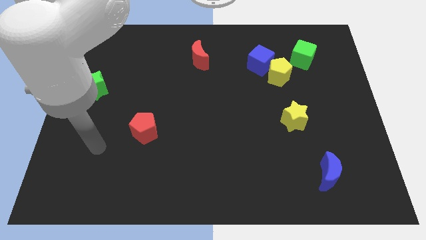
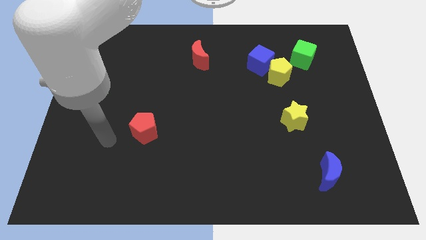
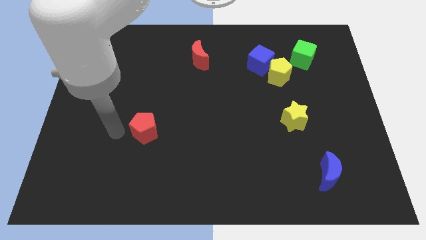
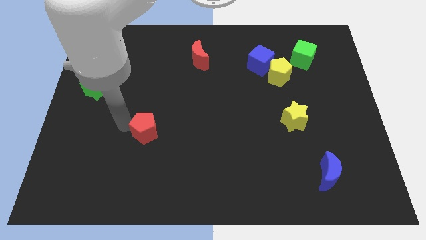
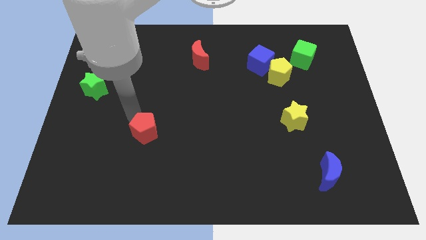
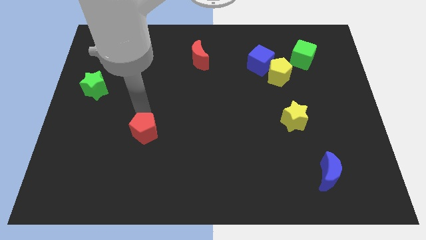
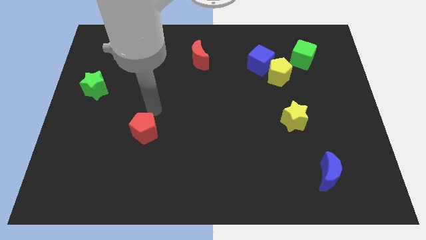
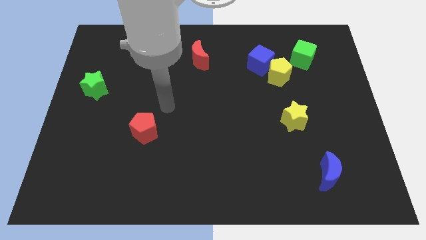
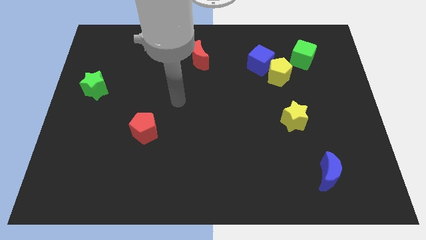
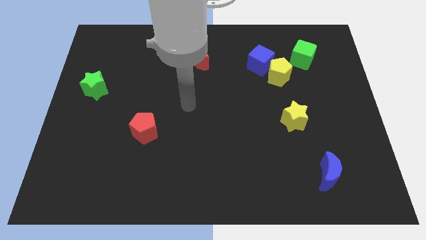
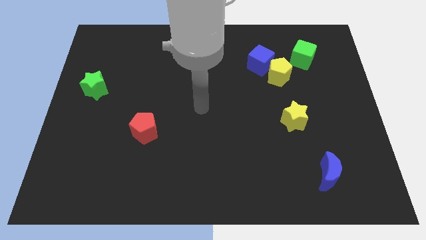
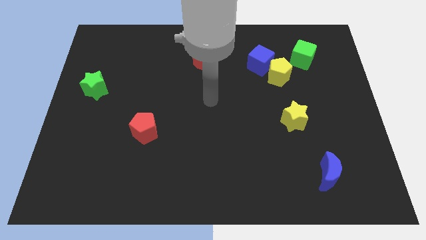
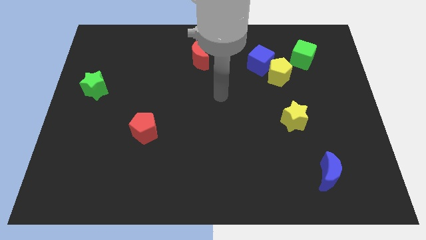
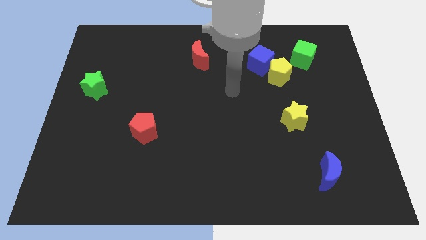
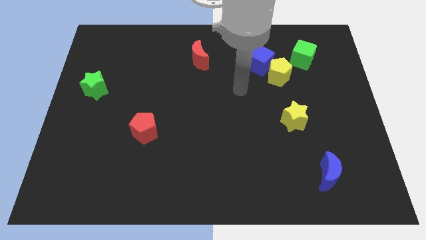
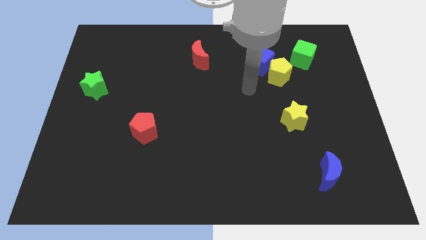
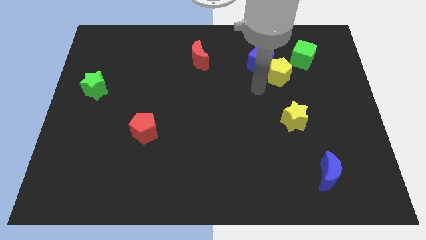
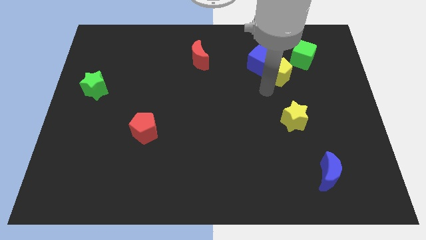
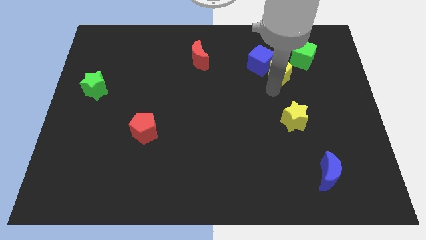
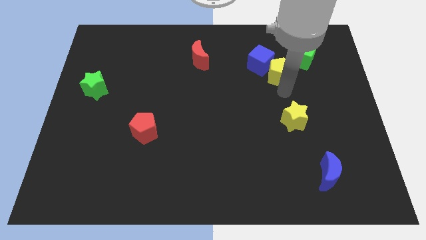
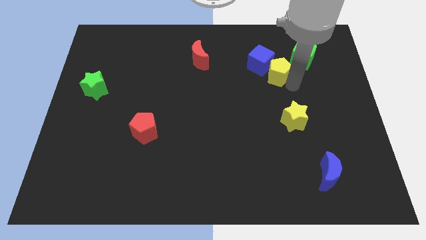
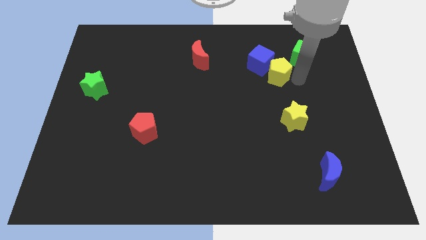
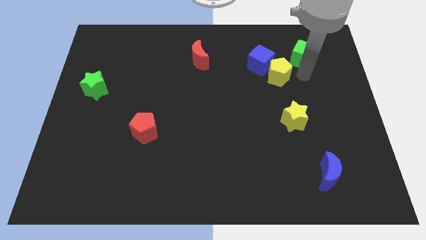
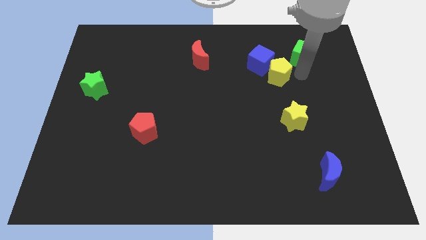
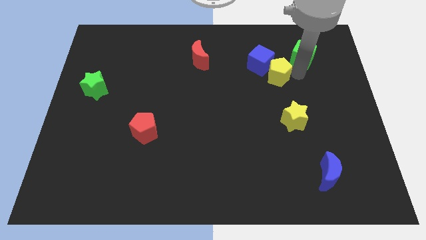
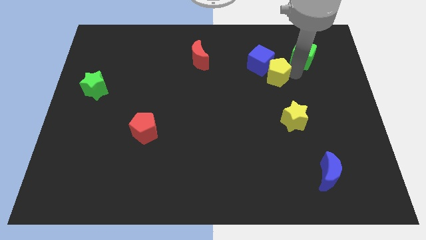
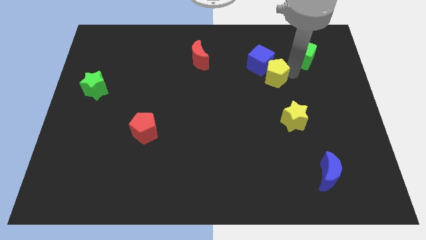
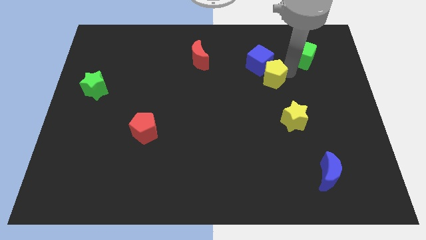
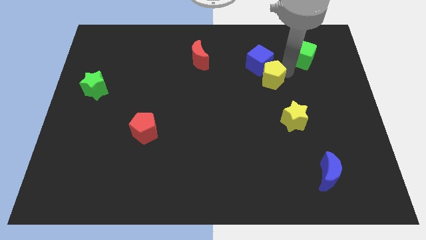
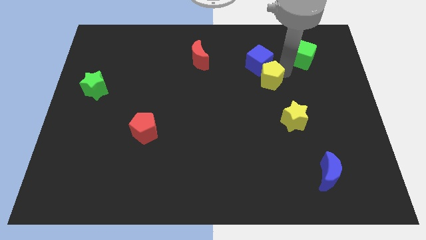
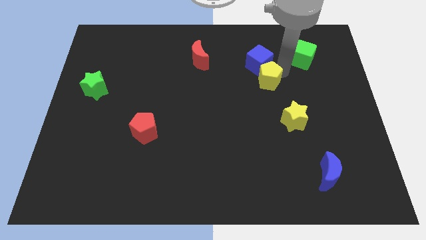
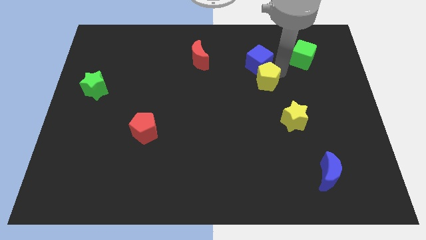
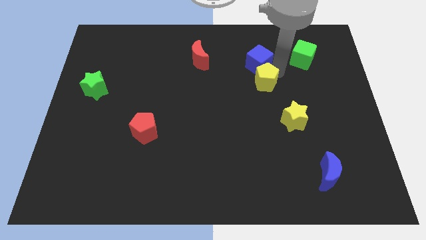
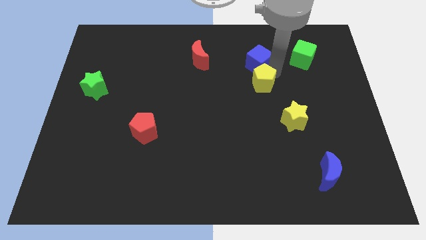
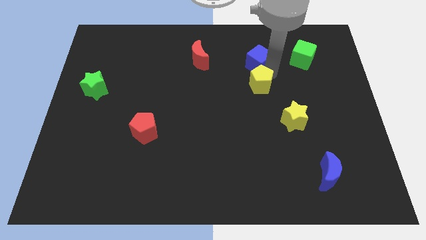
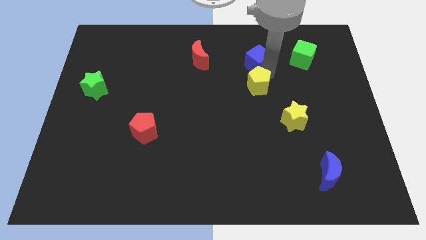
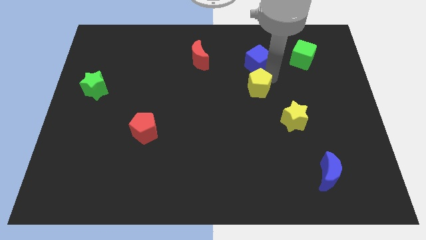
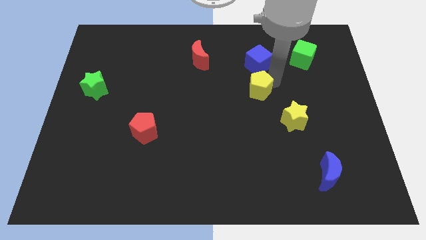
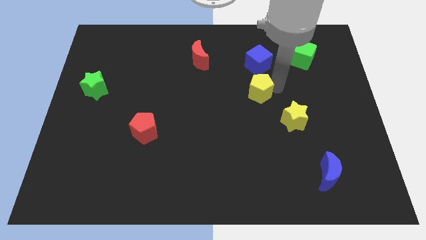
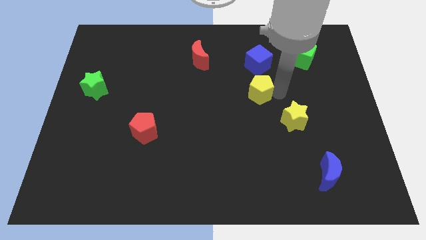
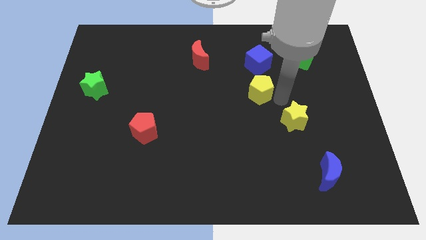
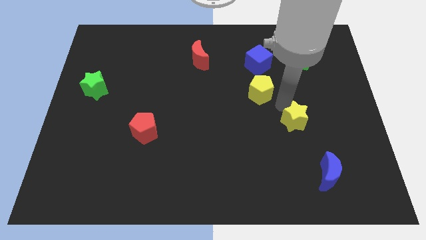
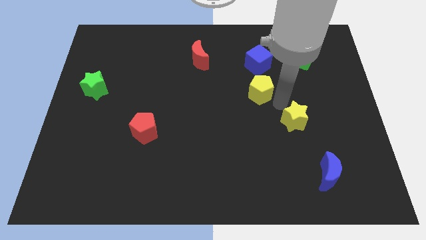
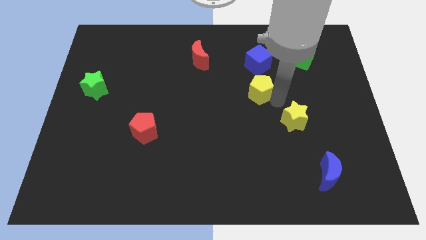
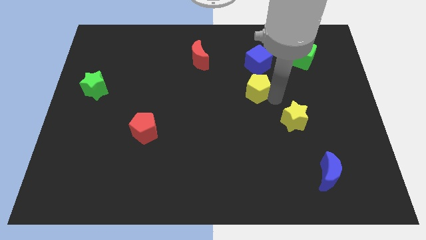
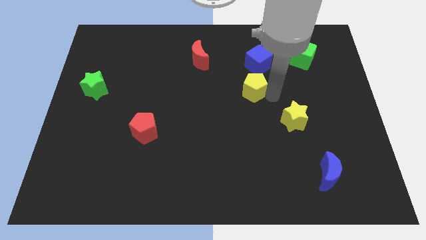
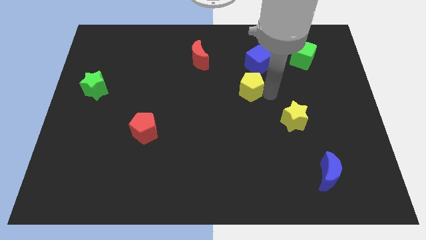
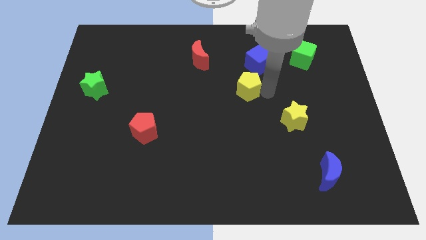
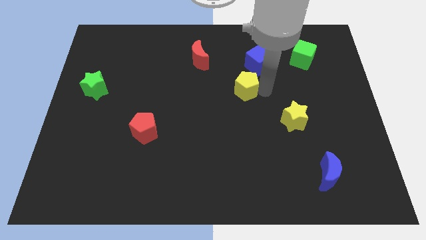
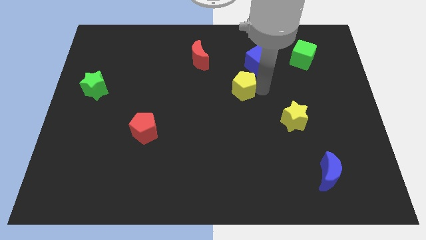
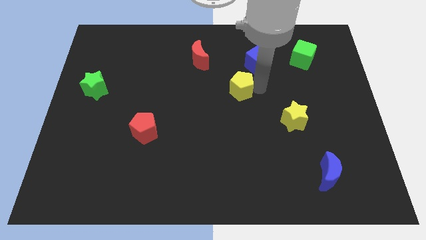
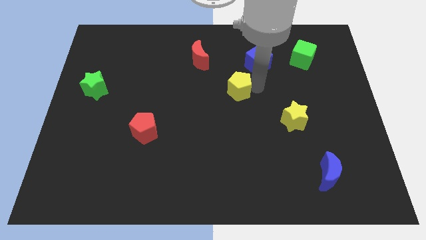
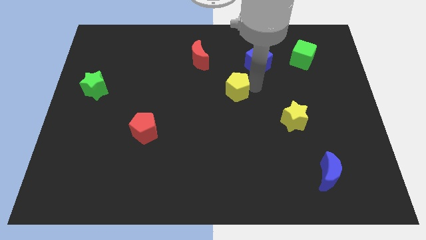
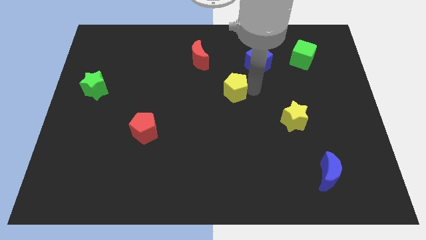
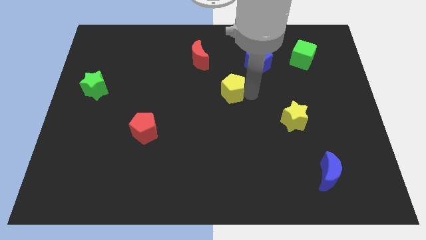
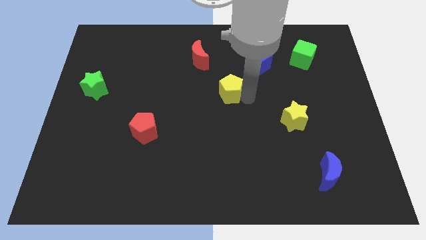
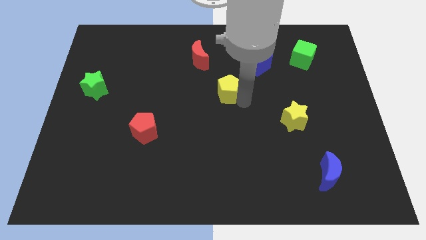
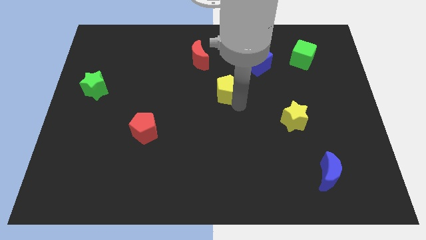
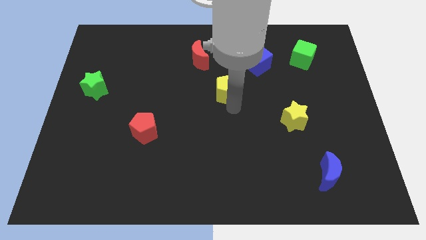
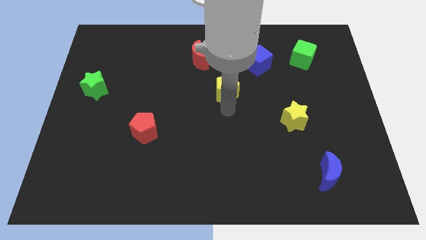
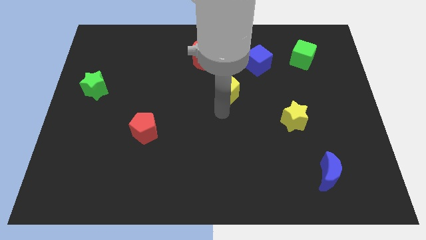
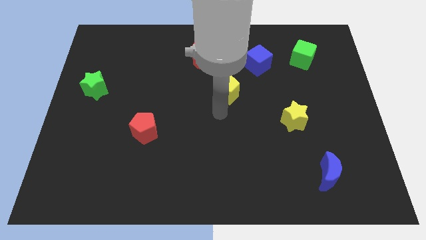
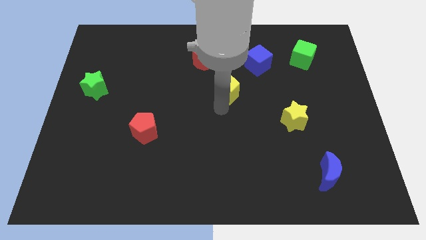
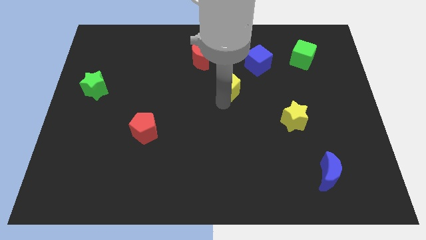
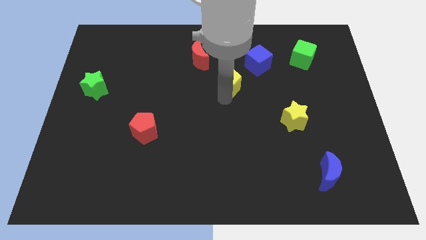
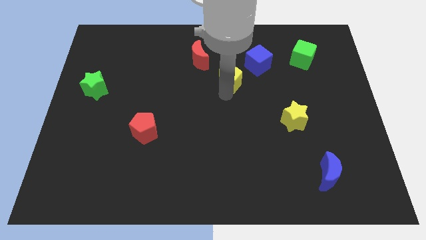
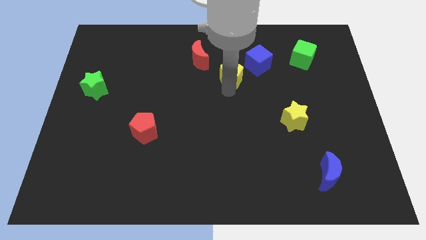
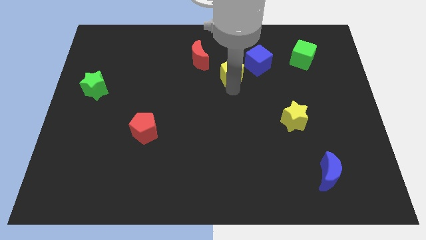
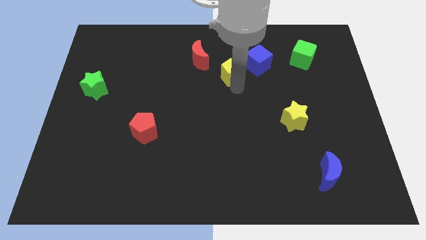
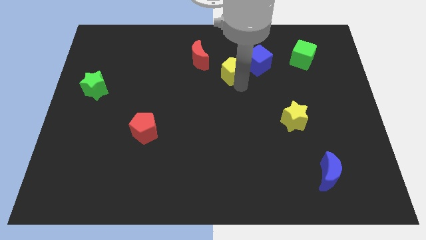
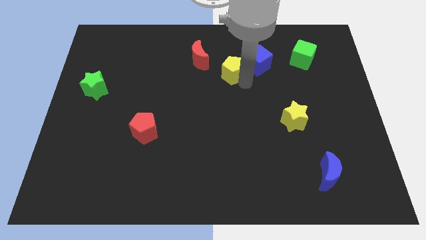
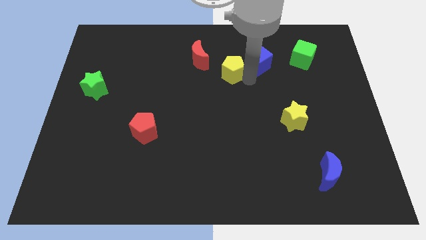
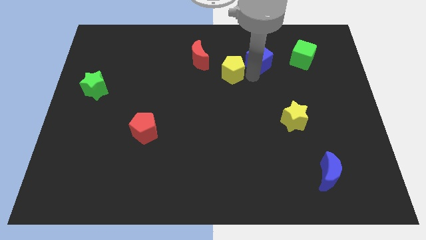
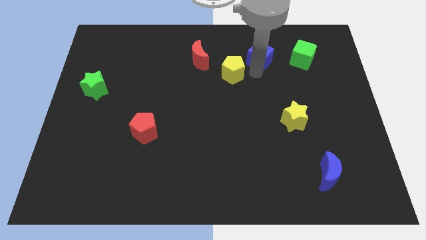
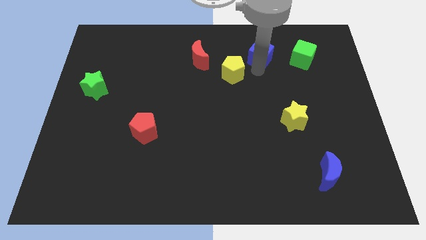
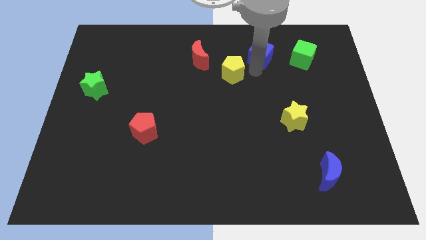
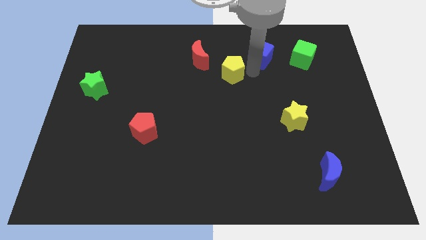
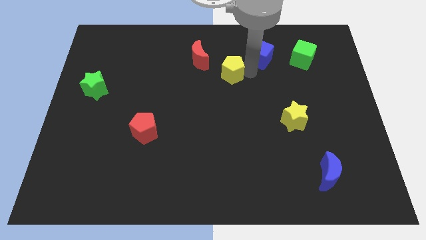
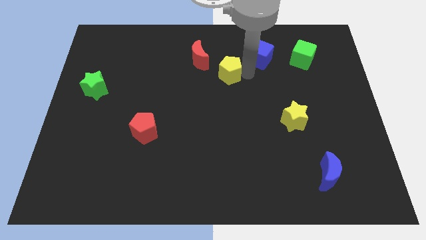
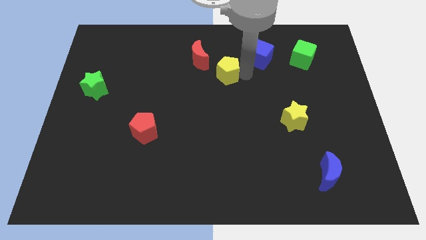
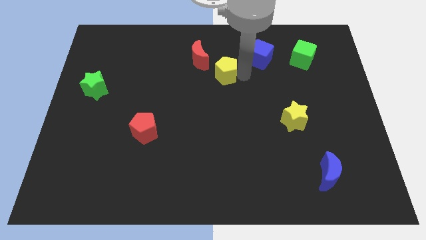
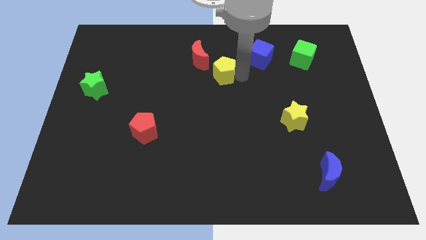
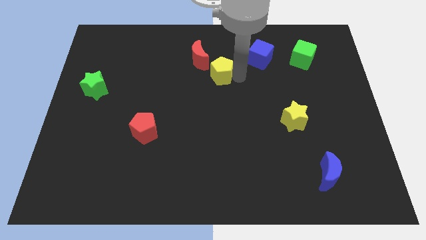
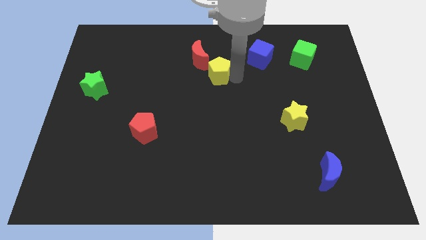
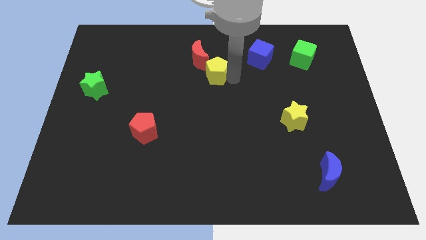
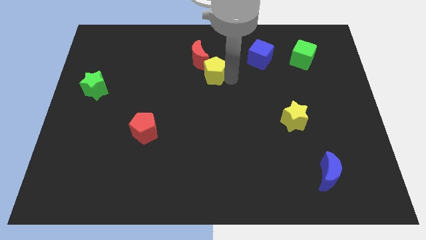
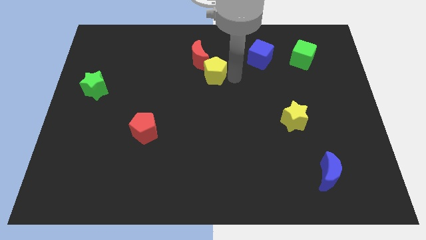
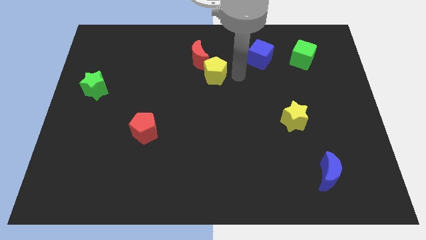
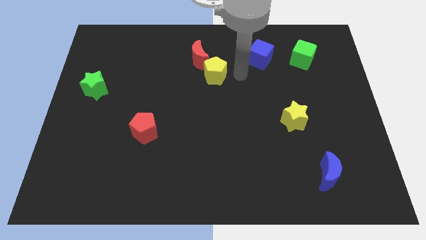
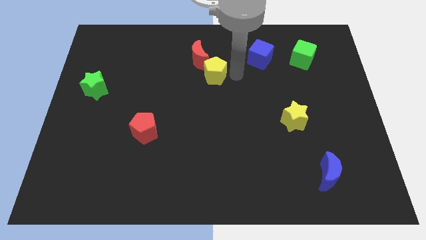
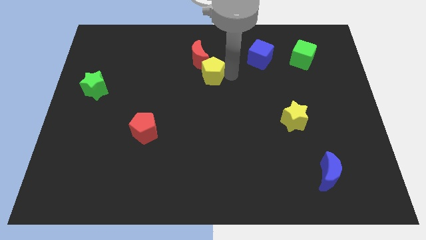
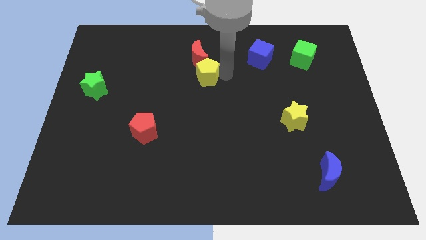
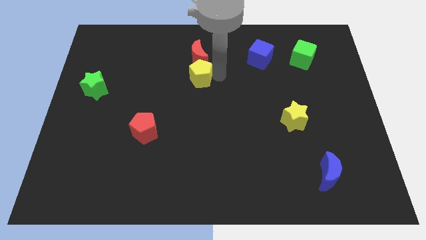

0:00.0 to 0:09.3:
move the yellow pentagon to the left
